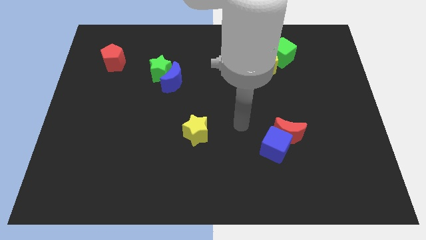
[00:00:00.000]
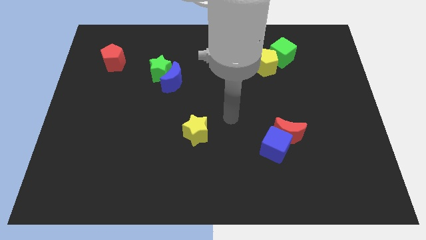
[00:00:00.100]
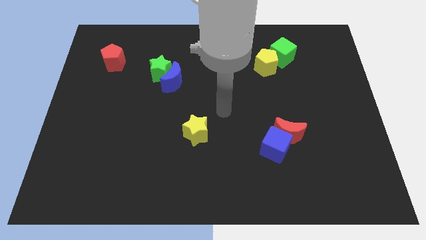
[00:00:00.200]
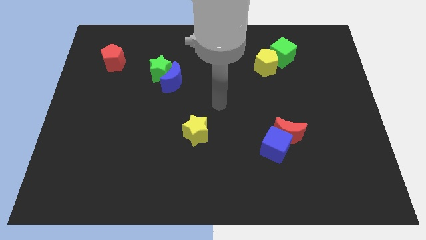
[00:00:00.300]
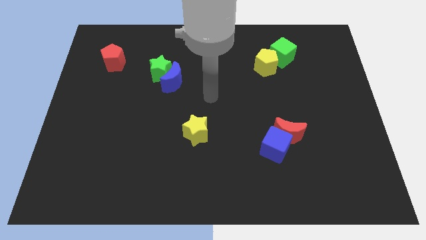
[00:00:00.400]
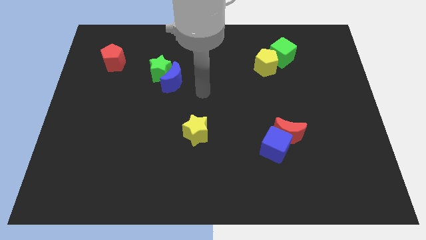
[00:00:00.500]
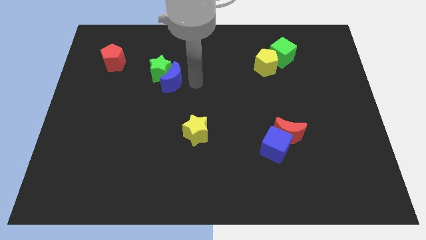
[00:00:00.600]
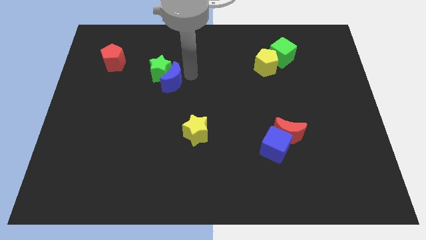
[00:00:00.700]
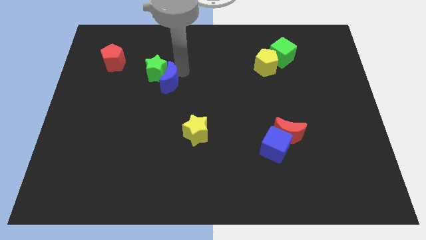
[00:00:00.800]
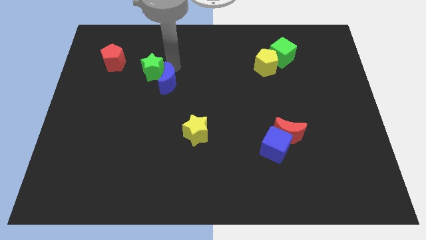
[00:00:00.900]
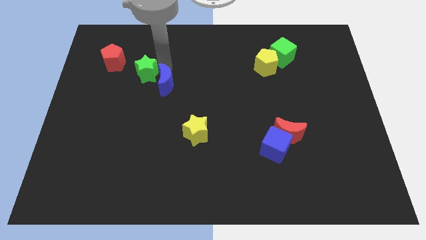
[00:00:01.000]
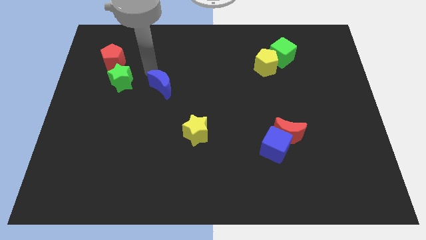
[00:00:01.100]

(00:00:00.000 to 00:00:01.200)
move the blue moon away from the green star

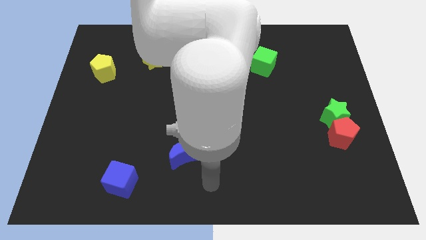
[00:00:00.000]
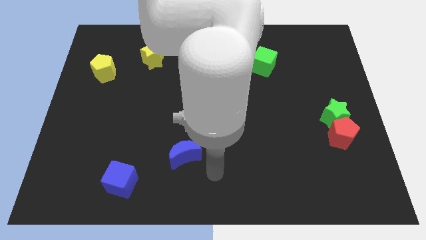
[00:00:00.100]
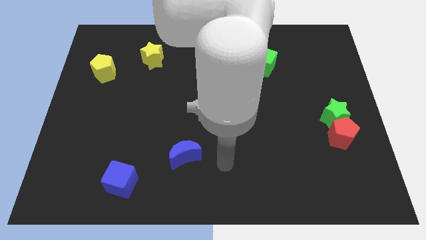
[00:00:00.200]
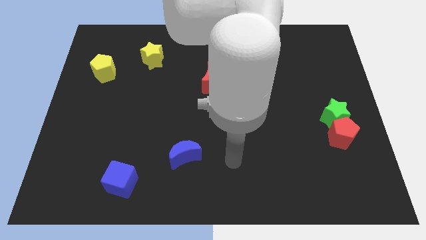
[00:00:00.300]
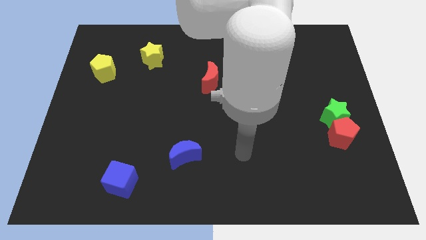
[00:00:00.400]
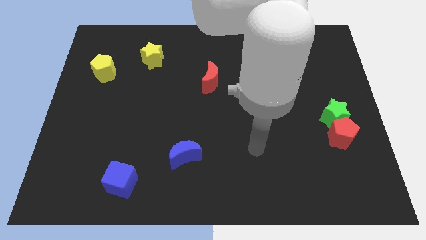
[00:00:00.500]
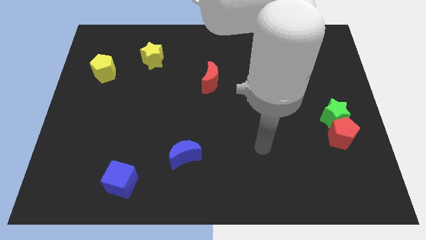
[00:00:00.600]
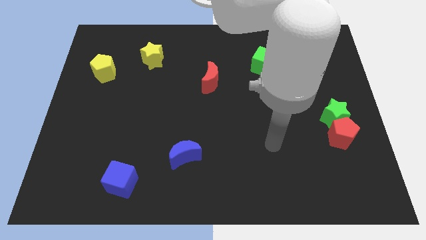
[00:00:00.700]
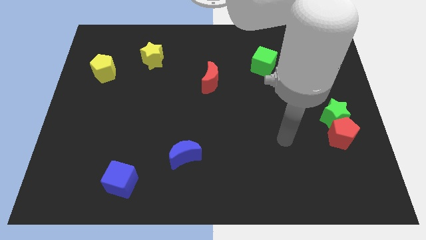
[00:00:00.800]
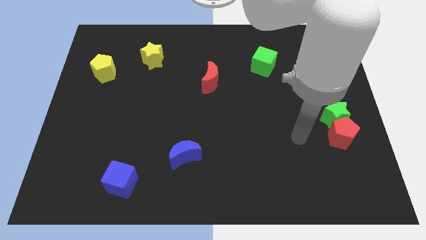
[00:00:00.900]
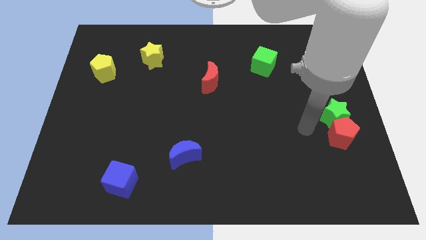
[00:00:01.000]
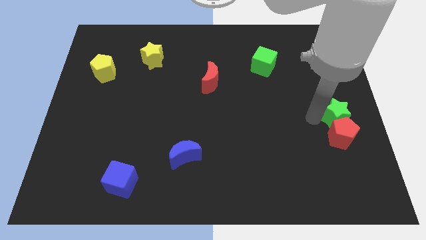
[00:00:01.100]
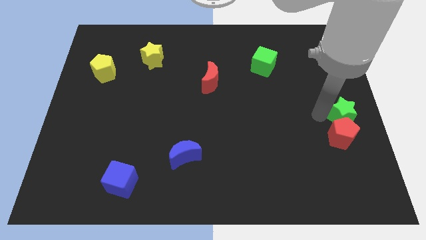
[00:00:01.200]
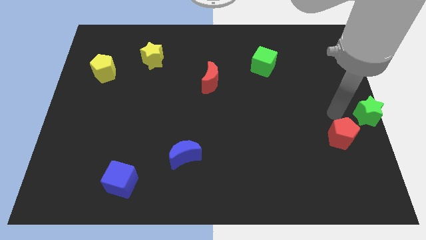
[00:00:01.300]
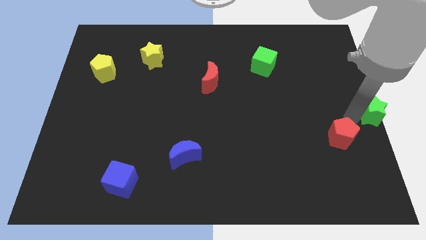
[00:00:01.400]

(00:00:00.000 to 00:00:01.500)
move the red pentagon away from the green star

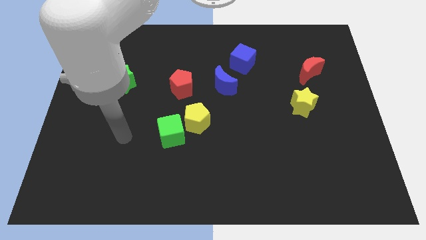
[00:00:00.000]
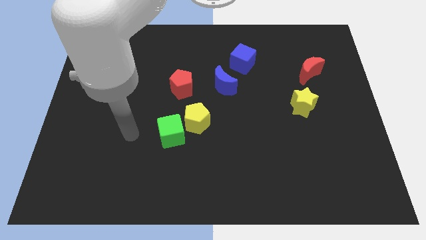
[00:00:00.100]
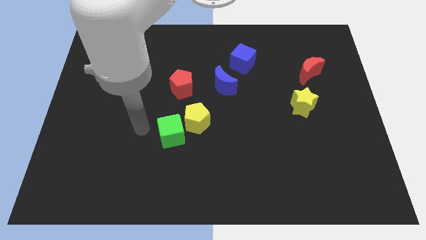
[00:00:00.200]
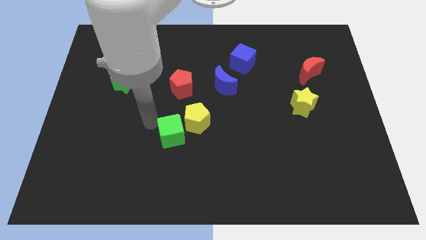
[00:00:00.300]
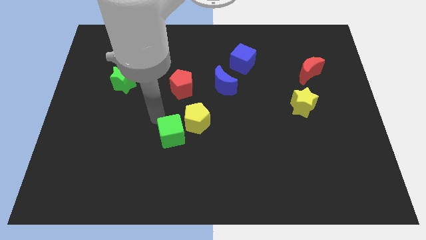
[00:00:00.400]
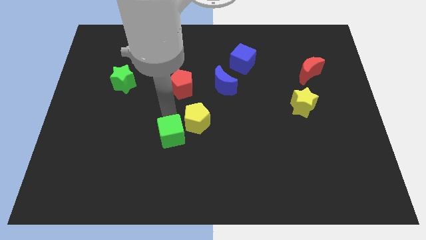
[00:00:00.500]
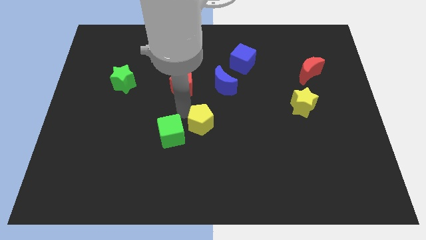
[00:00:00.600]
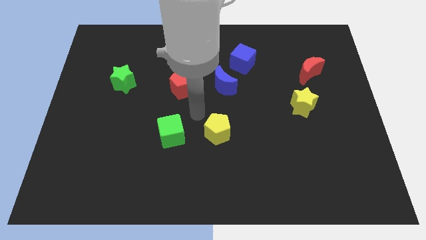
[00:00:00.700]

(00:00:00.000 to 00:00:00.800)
pull the green cube apart from the yellow pentagon

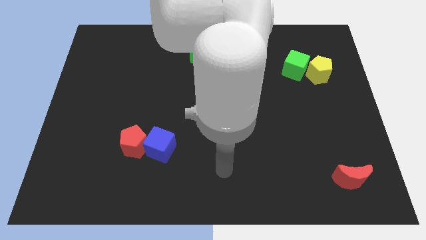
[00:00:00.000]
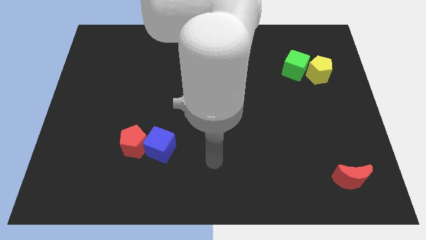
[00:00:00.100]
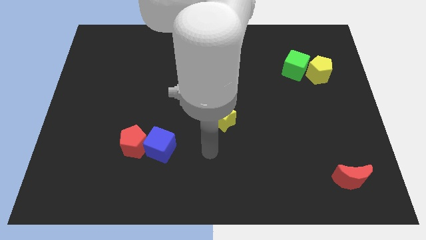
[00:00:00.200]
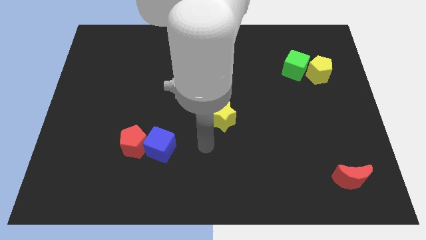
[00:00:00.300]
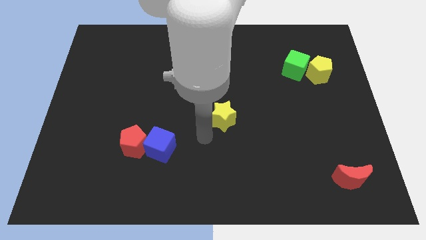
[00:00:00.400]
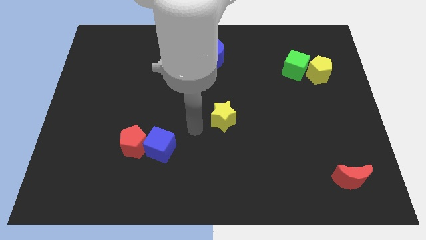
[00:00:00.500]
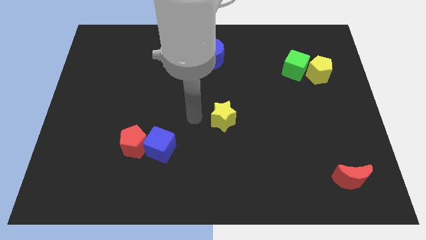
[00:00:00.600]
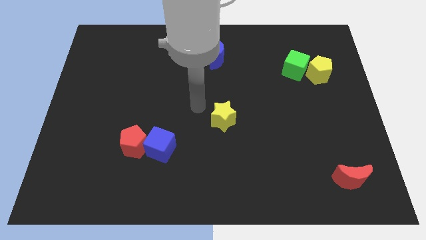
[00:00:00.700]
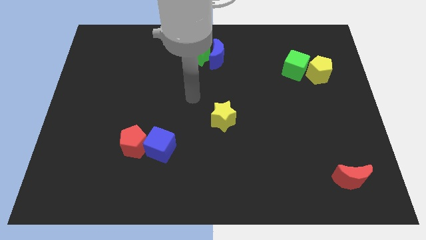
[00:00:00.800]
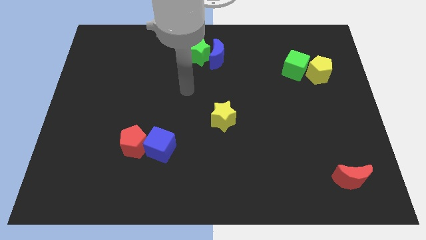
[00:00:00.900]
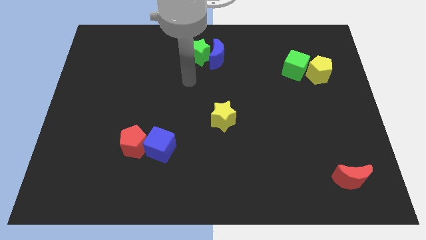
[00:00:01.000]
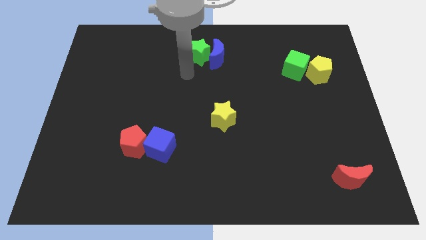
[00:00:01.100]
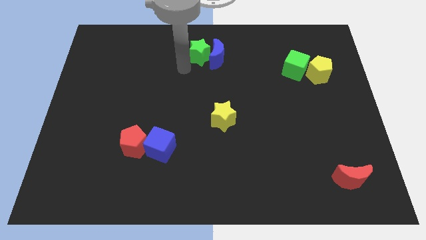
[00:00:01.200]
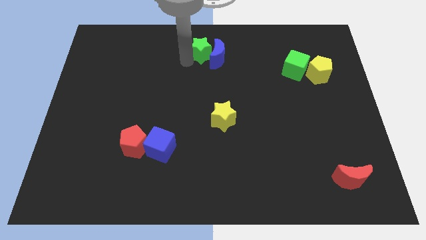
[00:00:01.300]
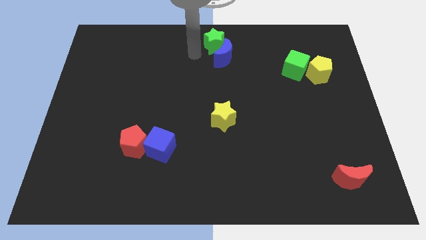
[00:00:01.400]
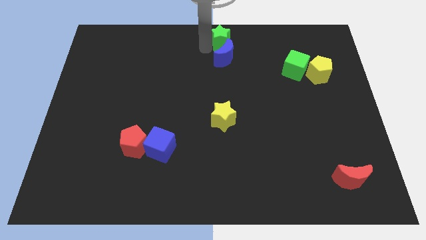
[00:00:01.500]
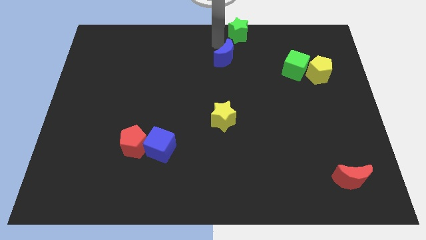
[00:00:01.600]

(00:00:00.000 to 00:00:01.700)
separate the blue moon from the green star

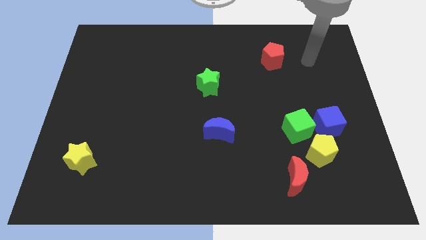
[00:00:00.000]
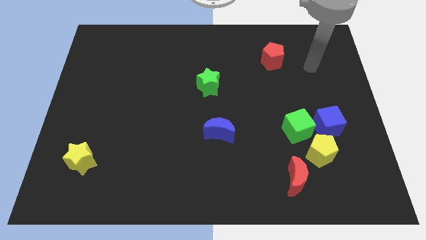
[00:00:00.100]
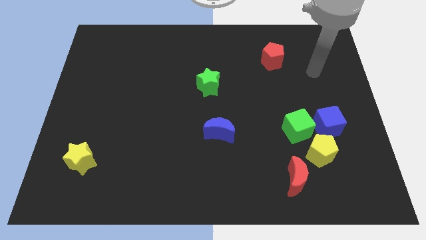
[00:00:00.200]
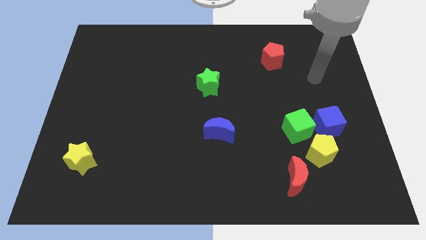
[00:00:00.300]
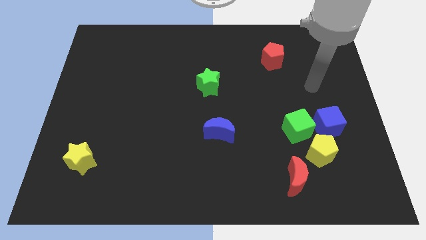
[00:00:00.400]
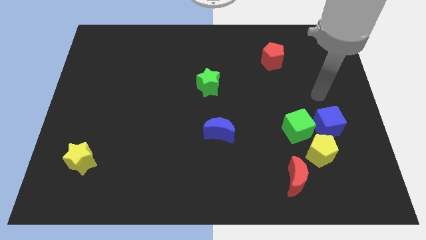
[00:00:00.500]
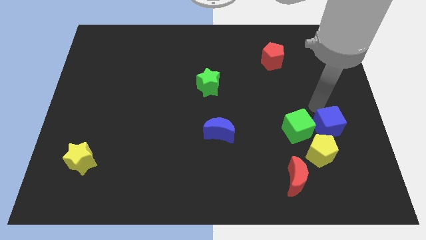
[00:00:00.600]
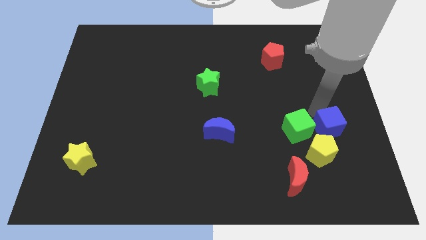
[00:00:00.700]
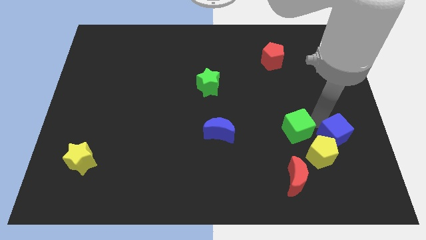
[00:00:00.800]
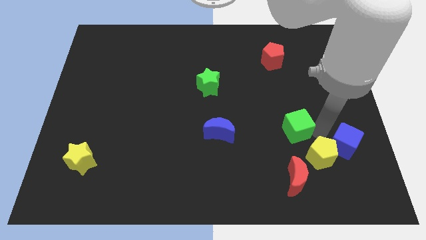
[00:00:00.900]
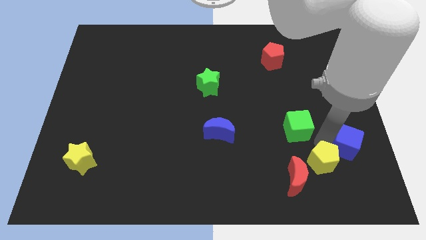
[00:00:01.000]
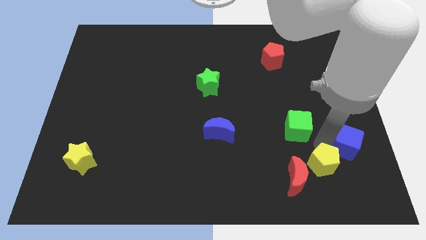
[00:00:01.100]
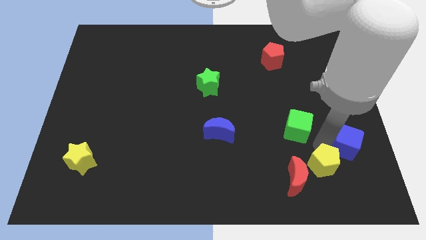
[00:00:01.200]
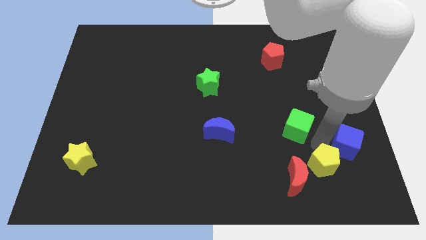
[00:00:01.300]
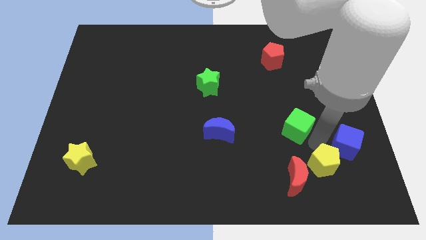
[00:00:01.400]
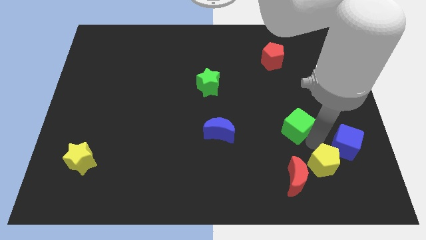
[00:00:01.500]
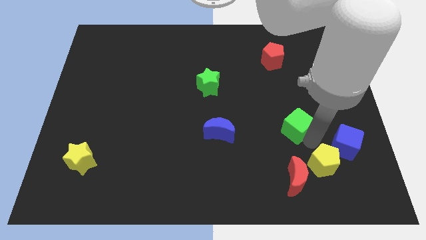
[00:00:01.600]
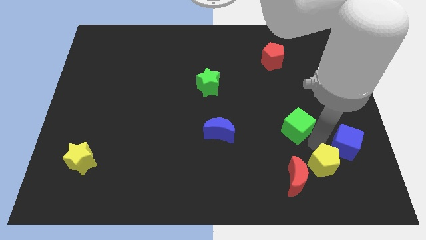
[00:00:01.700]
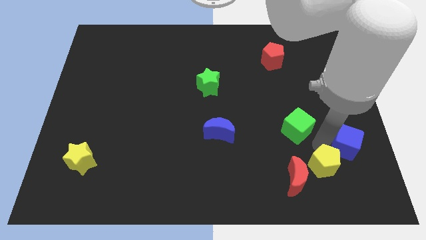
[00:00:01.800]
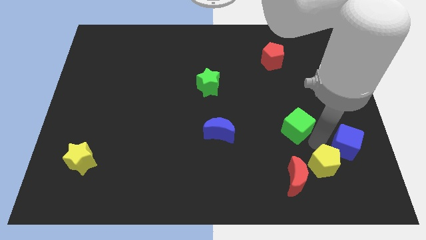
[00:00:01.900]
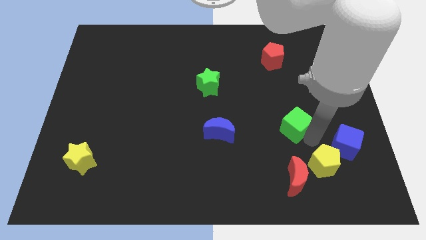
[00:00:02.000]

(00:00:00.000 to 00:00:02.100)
move the green cube away from the blue cube and yellow pentagon

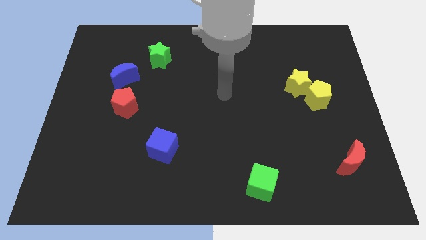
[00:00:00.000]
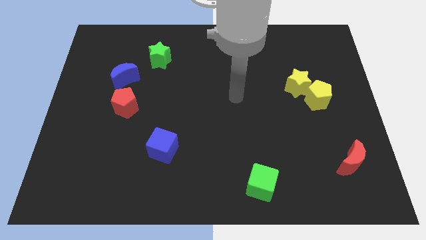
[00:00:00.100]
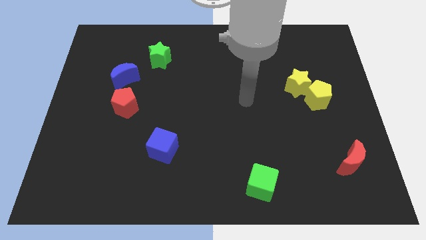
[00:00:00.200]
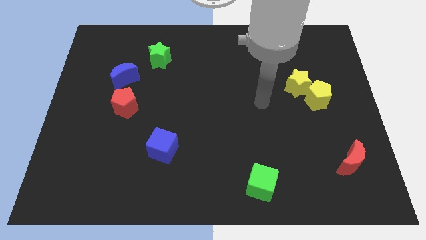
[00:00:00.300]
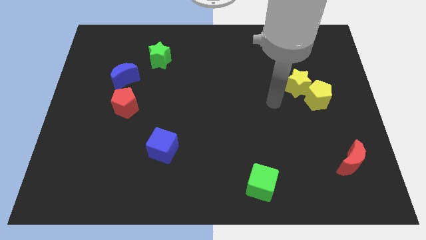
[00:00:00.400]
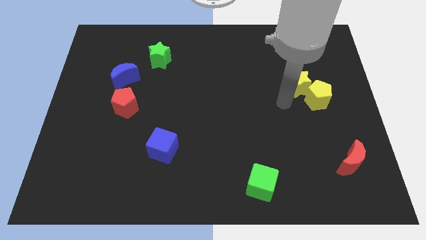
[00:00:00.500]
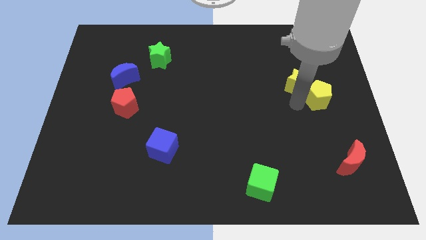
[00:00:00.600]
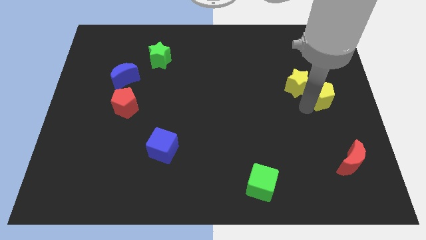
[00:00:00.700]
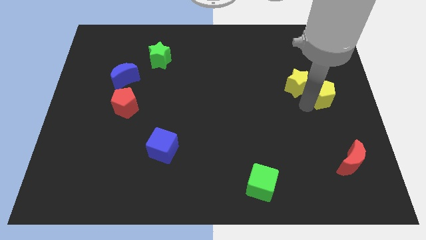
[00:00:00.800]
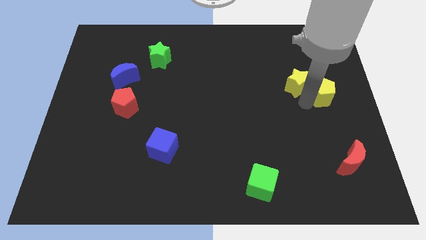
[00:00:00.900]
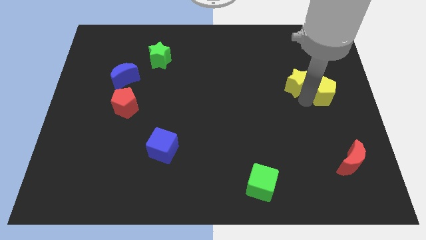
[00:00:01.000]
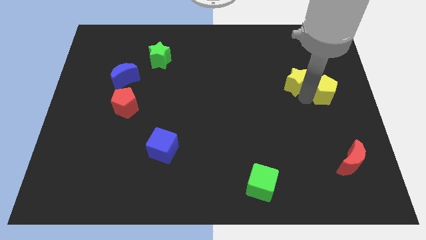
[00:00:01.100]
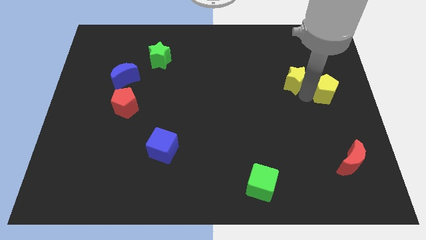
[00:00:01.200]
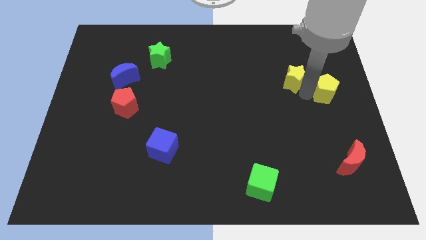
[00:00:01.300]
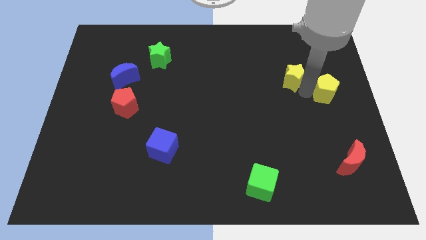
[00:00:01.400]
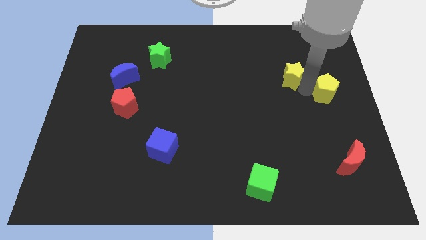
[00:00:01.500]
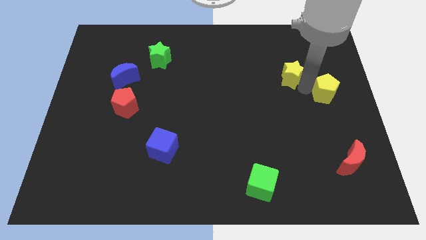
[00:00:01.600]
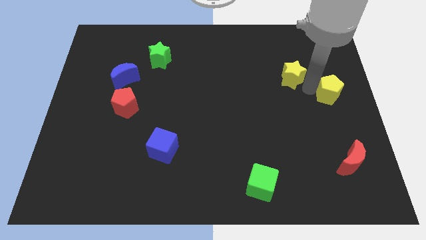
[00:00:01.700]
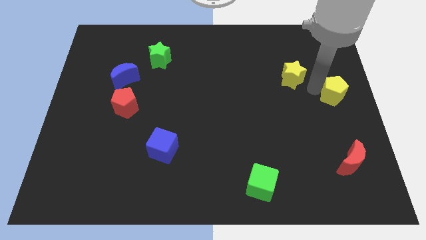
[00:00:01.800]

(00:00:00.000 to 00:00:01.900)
separate the yellow star from the yellow pentagon
